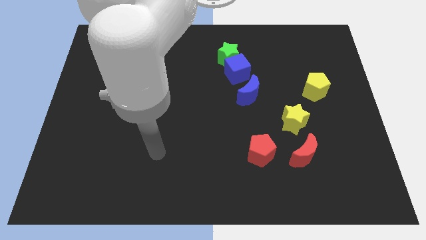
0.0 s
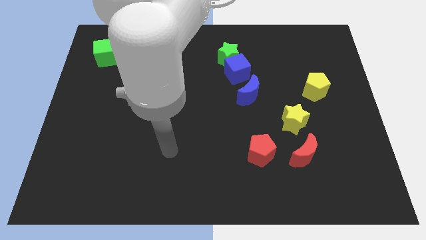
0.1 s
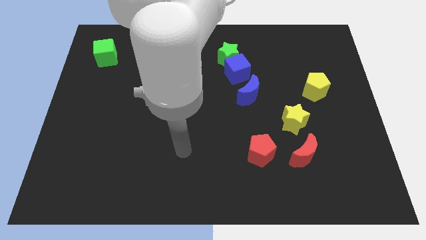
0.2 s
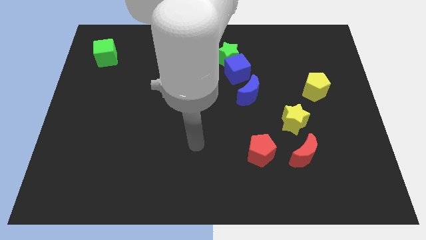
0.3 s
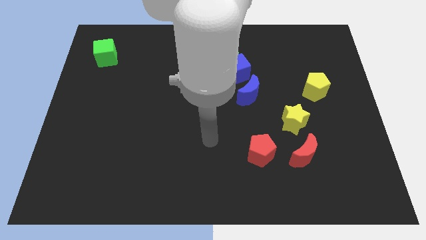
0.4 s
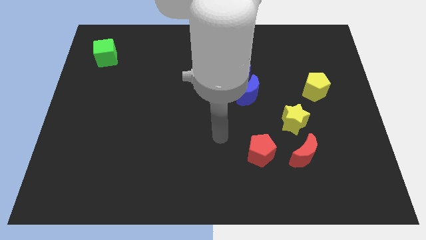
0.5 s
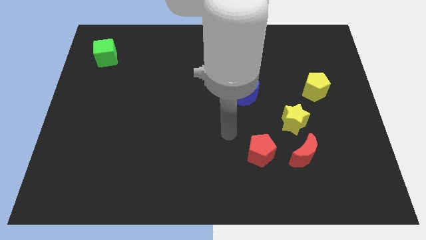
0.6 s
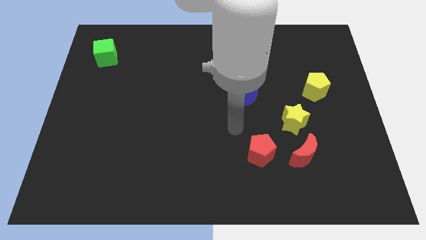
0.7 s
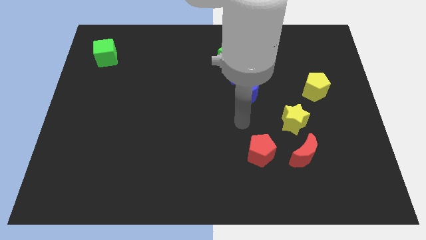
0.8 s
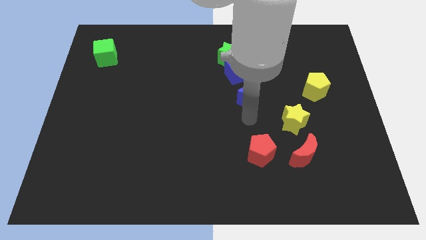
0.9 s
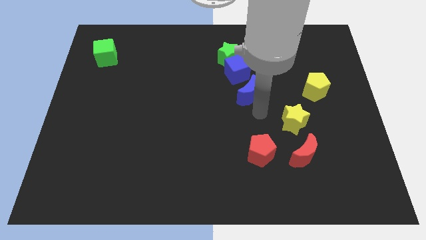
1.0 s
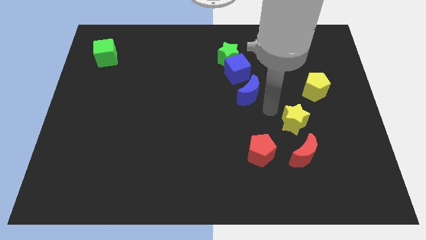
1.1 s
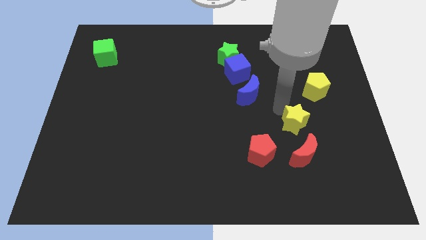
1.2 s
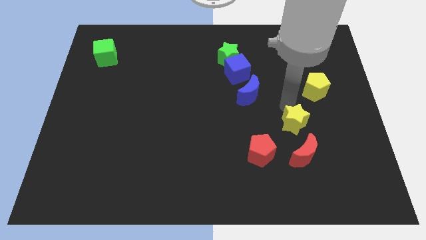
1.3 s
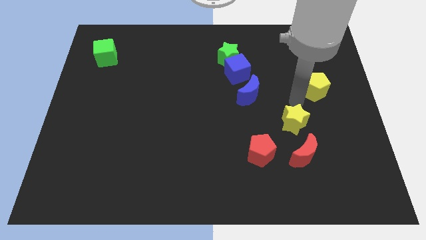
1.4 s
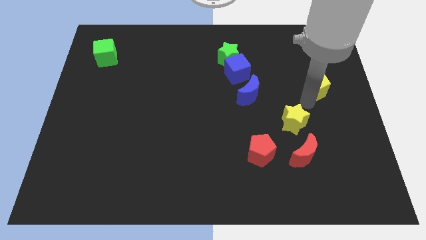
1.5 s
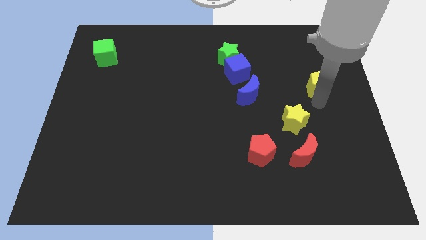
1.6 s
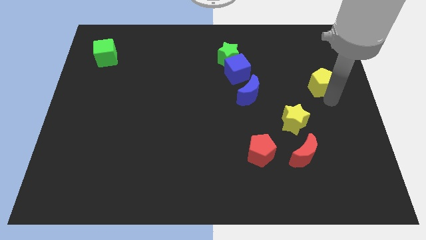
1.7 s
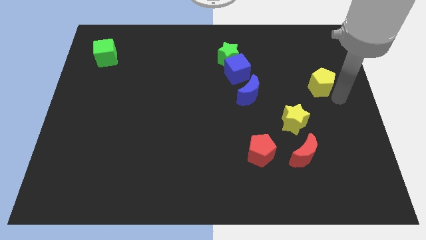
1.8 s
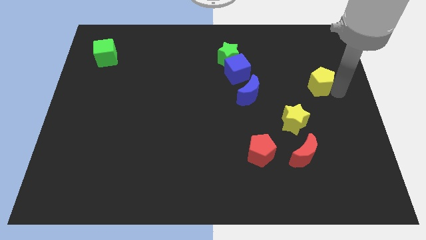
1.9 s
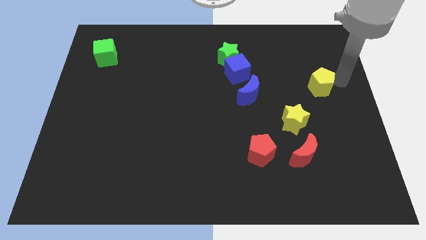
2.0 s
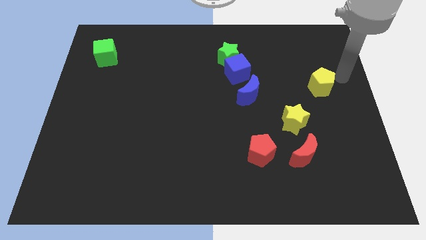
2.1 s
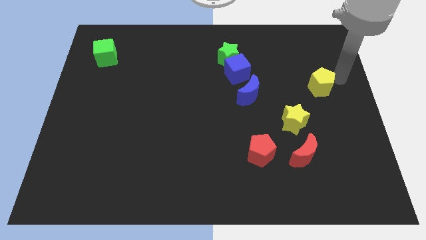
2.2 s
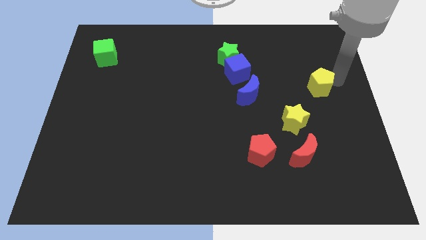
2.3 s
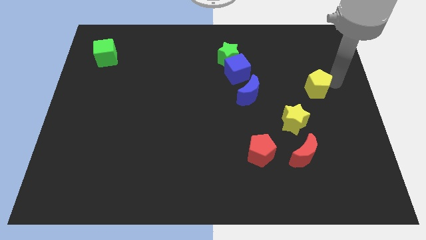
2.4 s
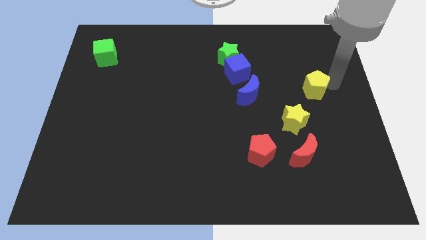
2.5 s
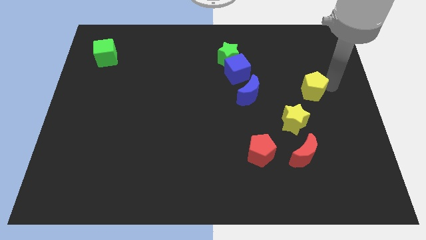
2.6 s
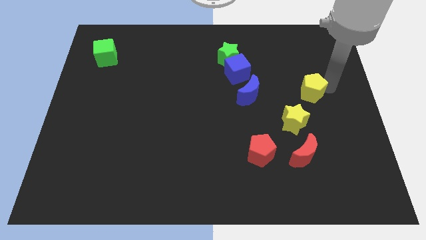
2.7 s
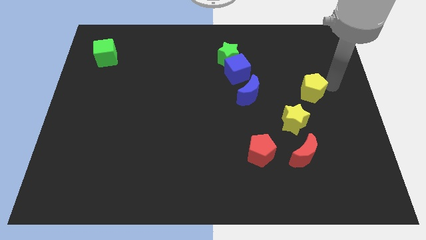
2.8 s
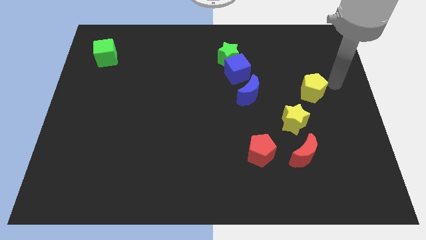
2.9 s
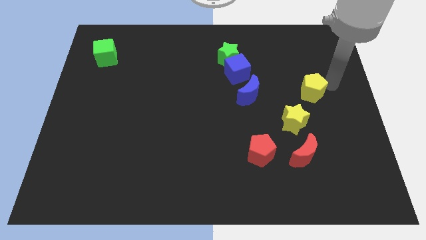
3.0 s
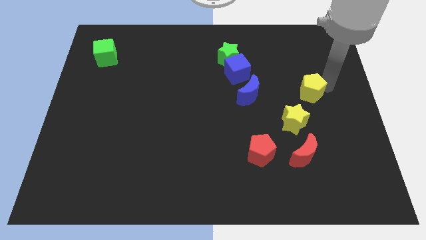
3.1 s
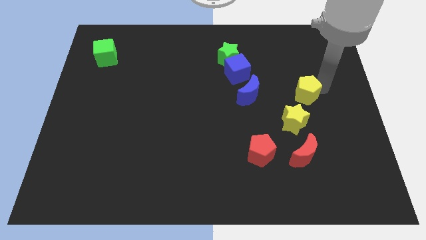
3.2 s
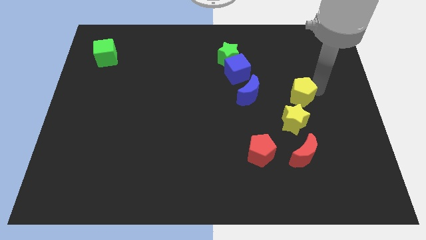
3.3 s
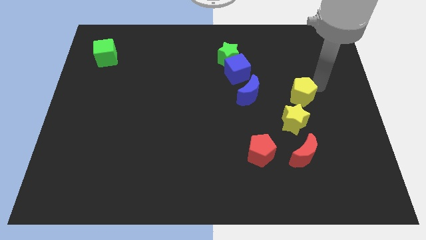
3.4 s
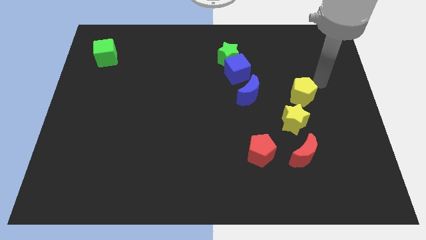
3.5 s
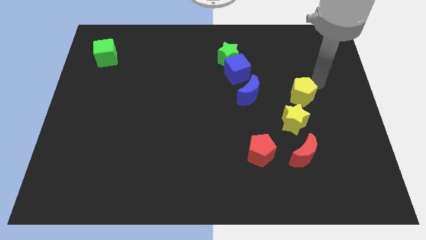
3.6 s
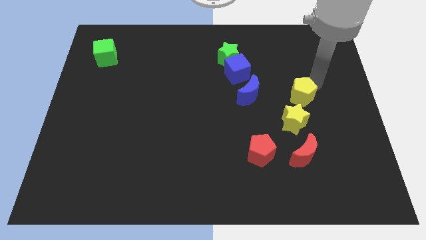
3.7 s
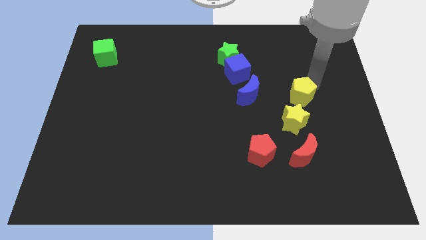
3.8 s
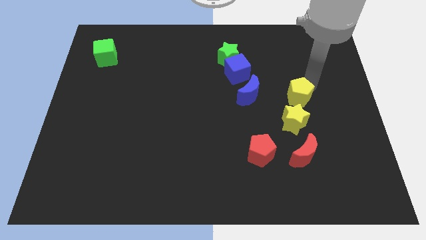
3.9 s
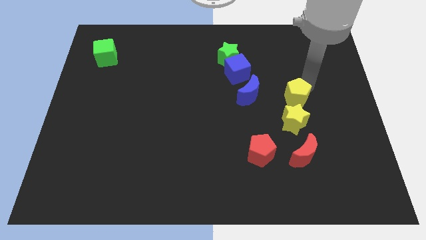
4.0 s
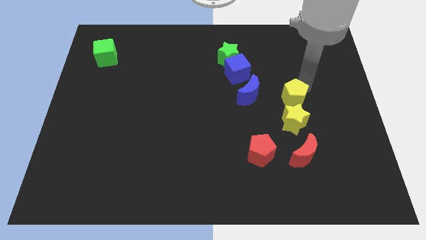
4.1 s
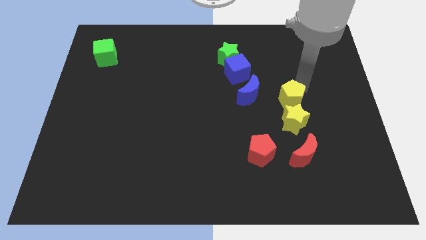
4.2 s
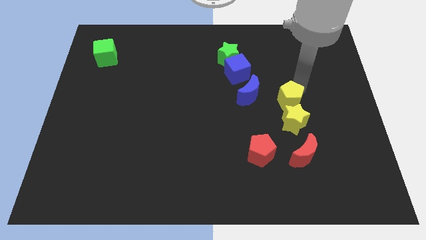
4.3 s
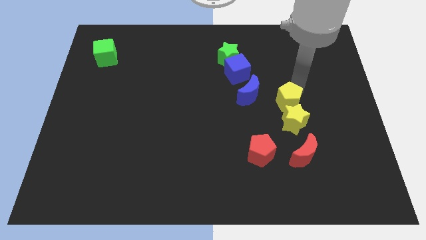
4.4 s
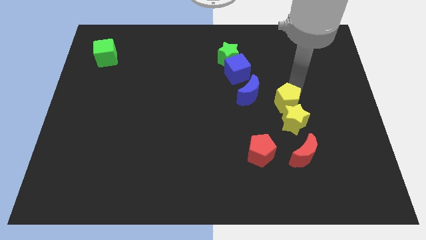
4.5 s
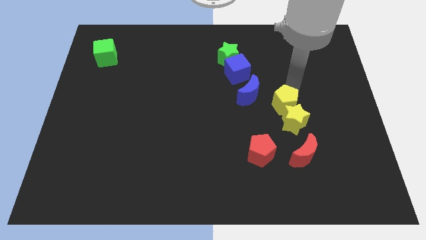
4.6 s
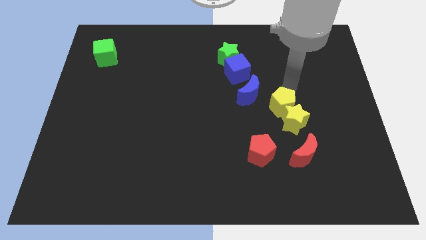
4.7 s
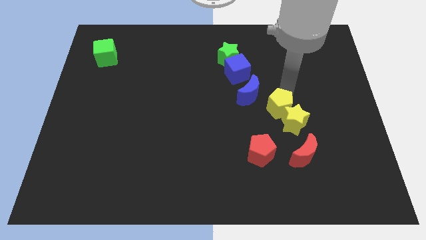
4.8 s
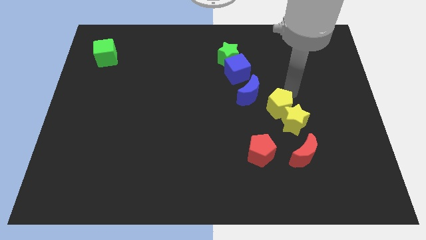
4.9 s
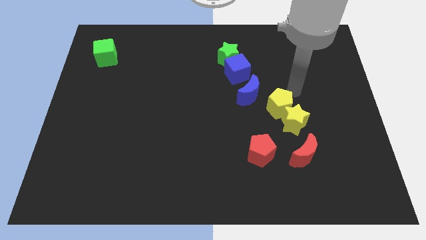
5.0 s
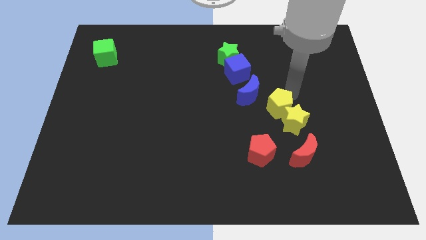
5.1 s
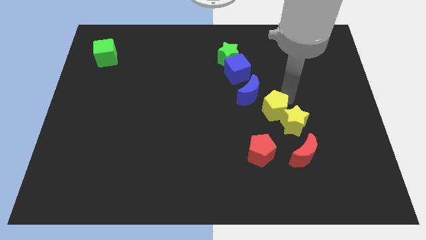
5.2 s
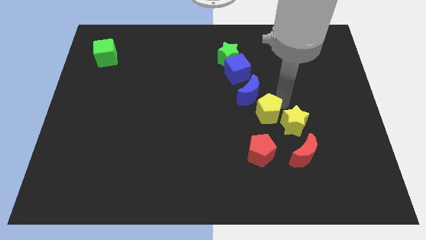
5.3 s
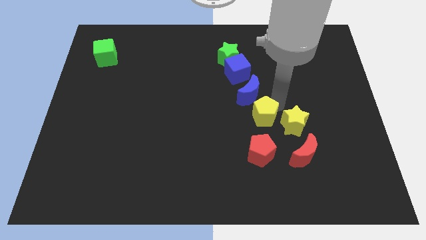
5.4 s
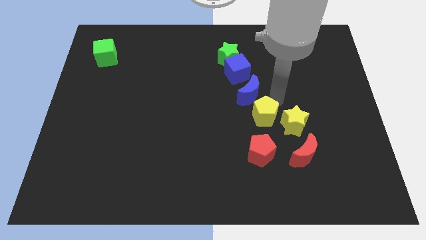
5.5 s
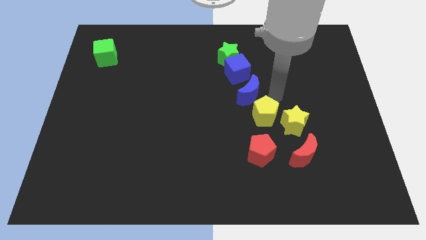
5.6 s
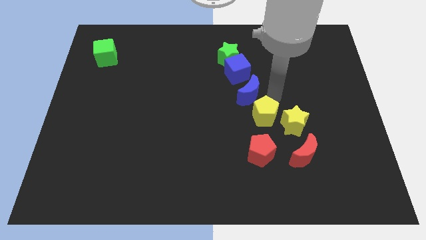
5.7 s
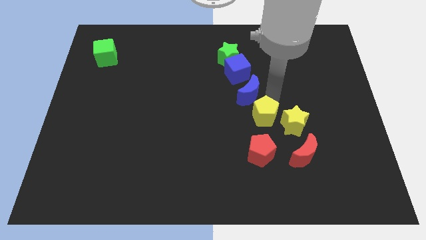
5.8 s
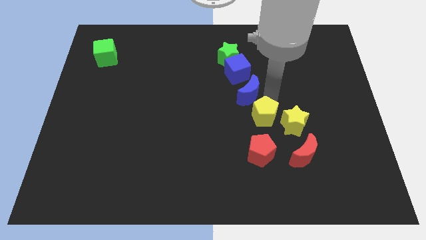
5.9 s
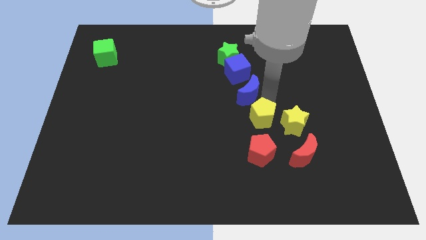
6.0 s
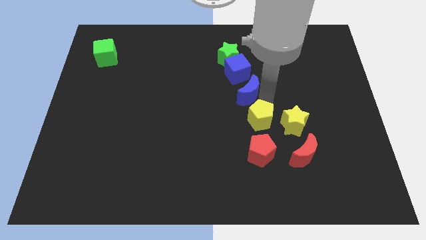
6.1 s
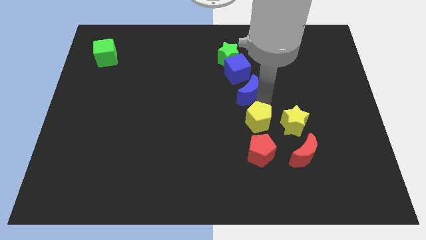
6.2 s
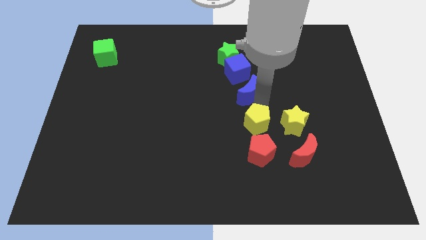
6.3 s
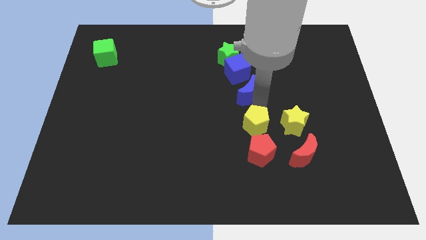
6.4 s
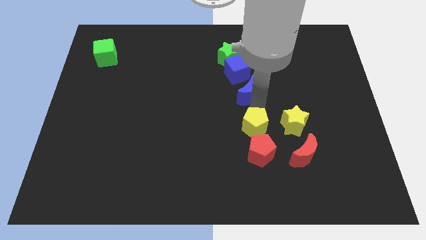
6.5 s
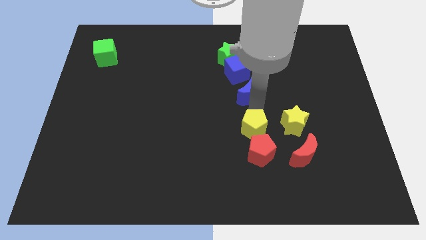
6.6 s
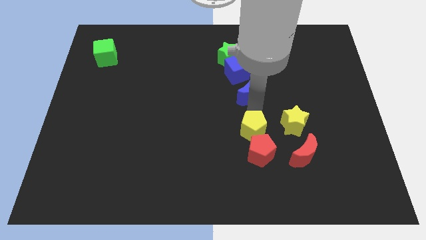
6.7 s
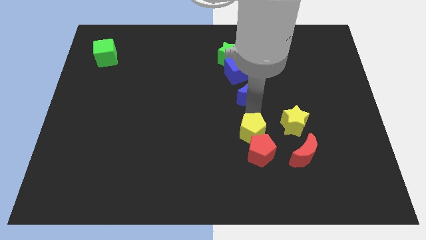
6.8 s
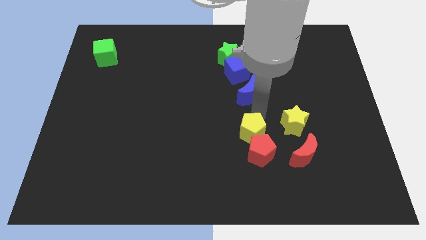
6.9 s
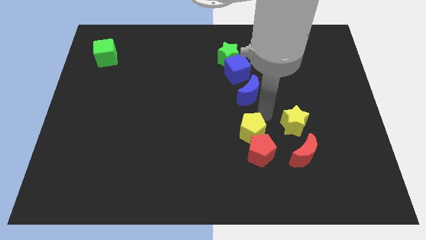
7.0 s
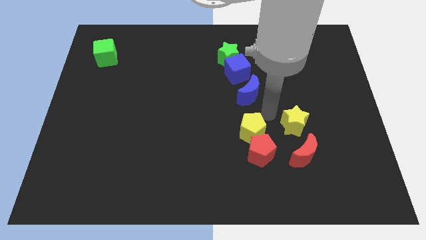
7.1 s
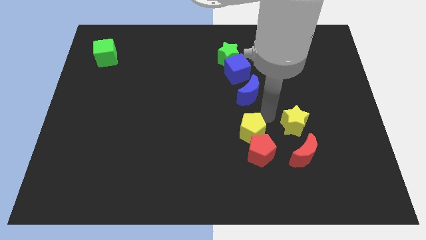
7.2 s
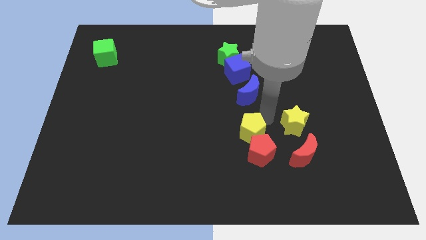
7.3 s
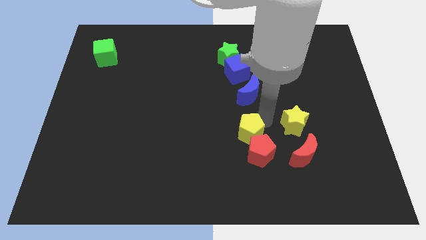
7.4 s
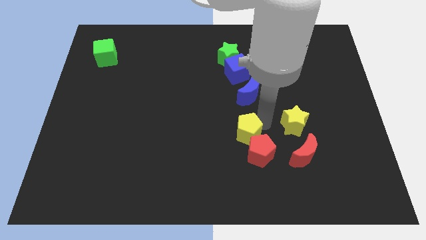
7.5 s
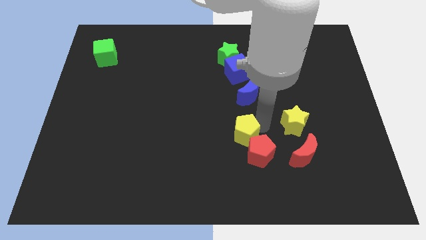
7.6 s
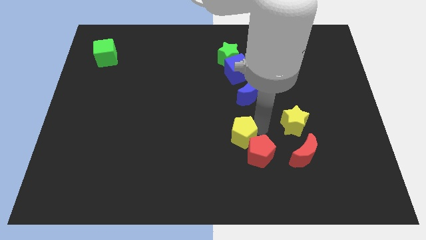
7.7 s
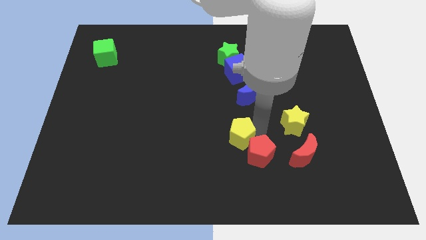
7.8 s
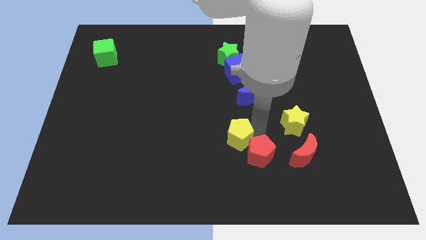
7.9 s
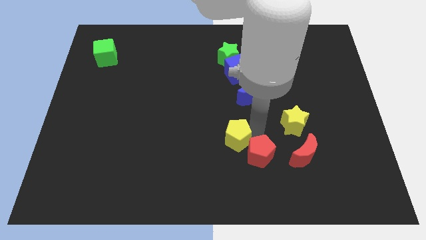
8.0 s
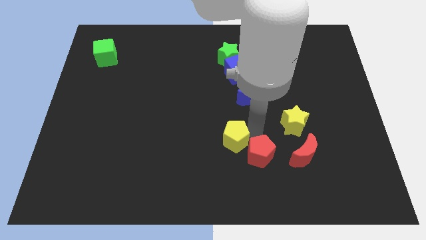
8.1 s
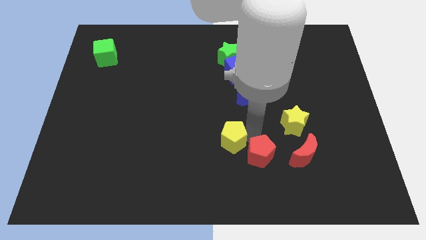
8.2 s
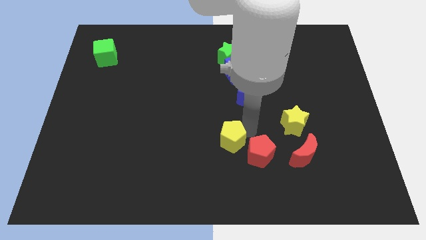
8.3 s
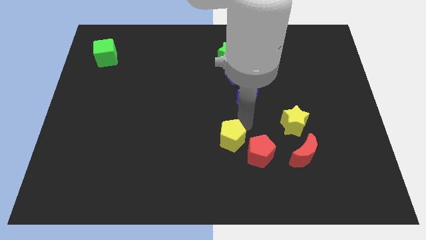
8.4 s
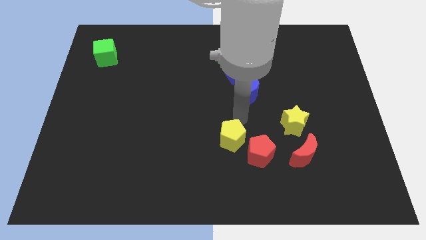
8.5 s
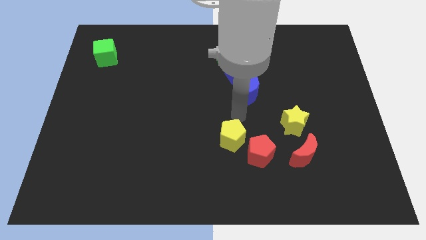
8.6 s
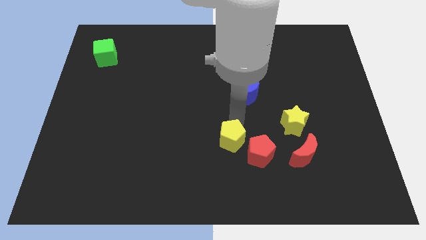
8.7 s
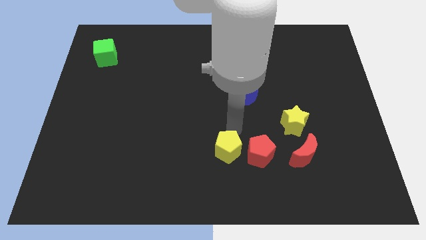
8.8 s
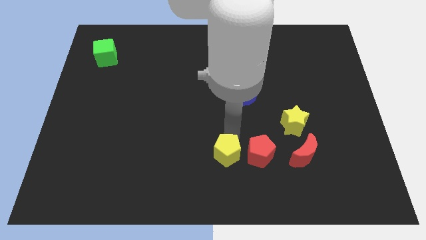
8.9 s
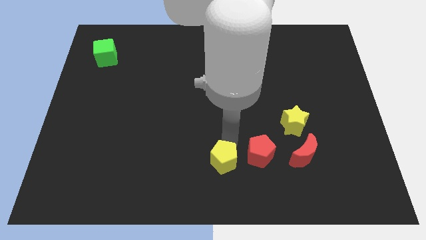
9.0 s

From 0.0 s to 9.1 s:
put the yellow pentagon to the bottom side
